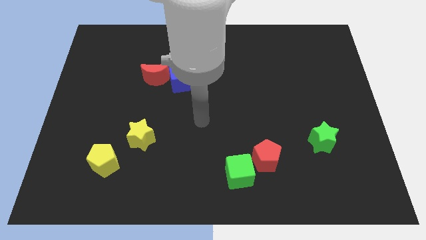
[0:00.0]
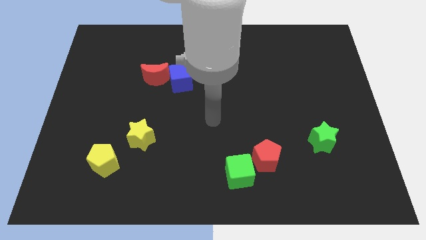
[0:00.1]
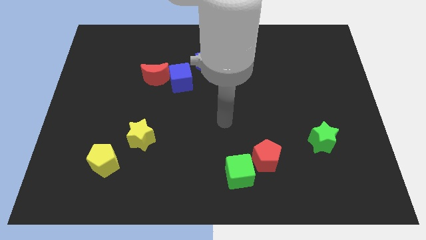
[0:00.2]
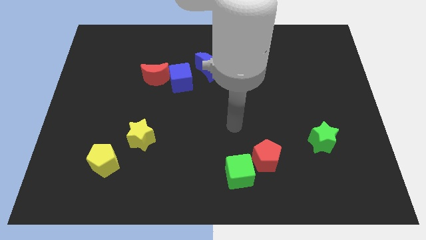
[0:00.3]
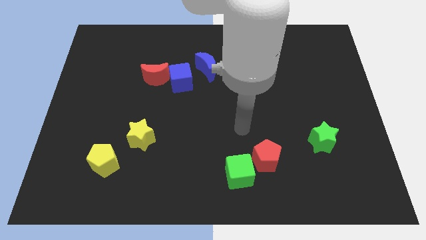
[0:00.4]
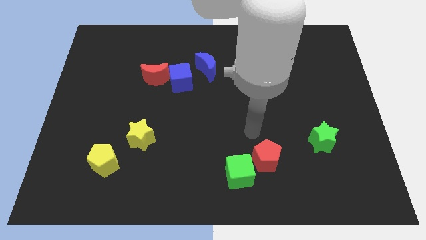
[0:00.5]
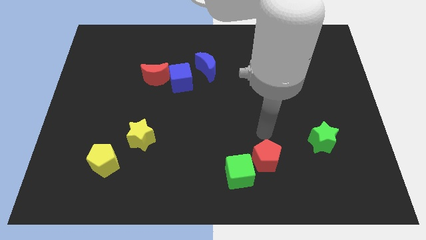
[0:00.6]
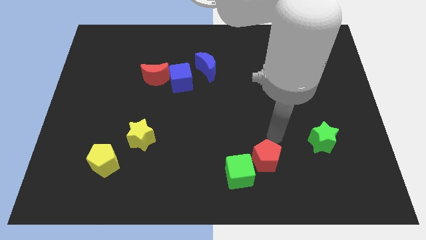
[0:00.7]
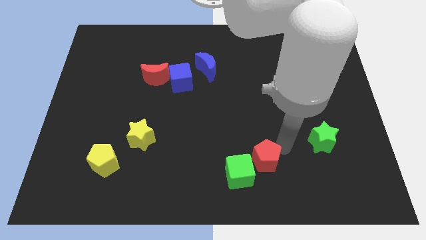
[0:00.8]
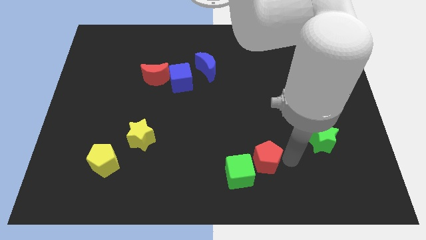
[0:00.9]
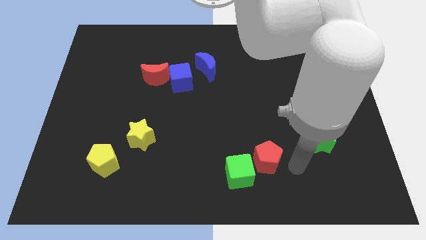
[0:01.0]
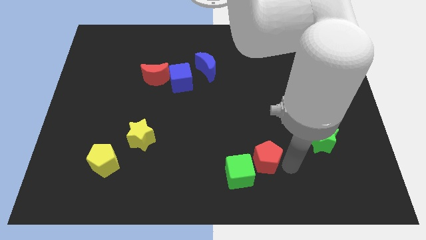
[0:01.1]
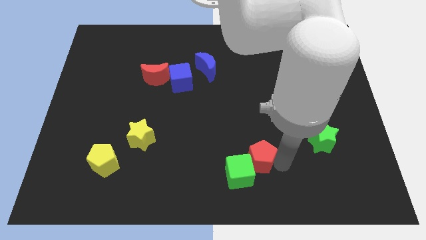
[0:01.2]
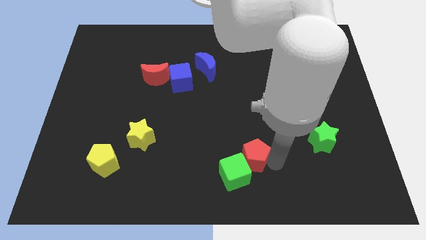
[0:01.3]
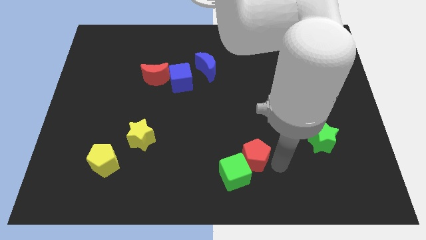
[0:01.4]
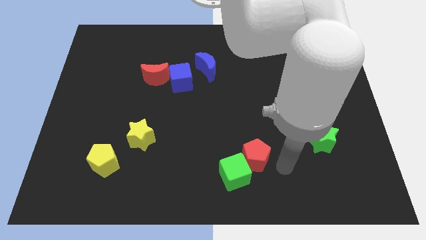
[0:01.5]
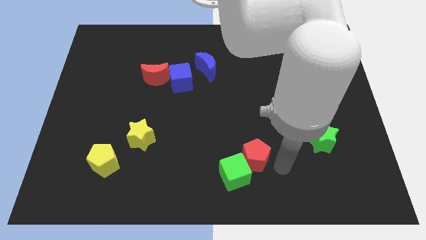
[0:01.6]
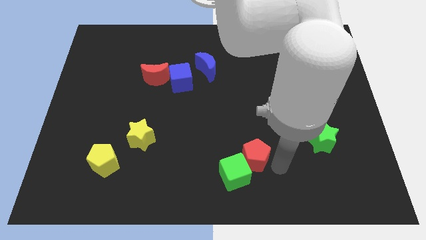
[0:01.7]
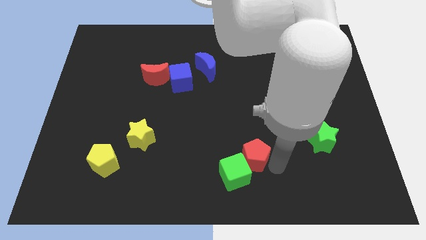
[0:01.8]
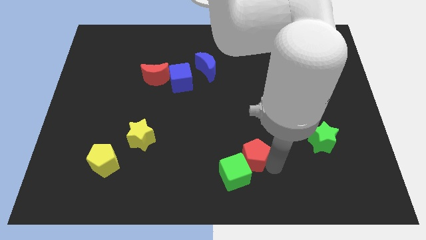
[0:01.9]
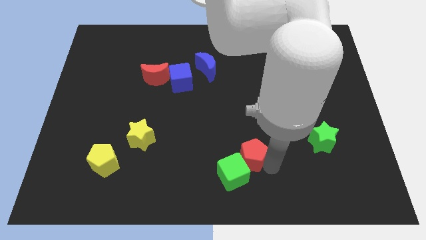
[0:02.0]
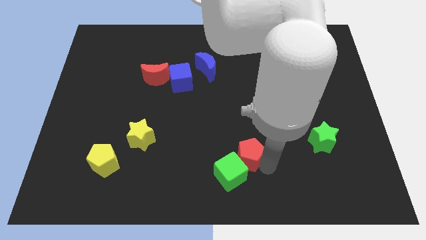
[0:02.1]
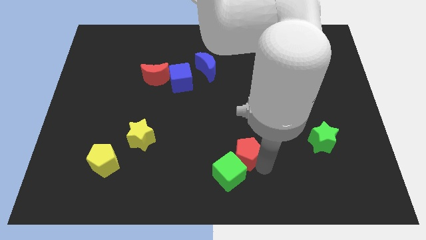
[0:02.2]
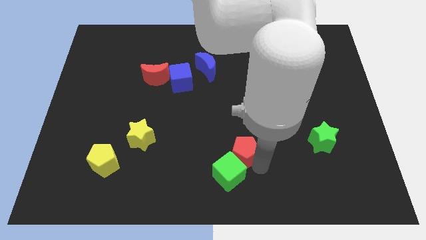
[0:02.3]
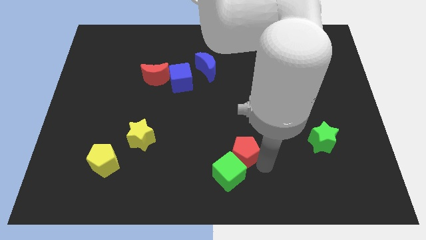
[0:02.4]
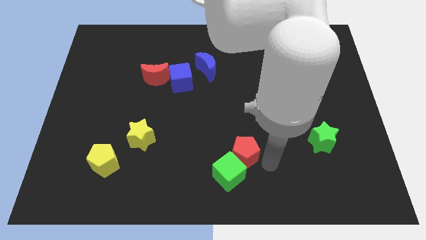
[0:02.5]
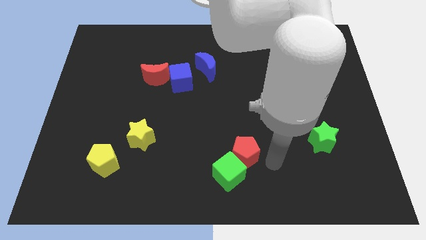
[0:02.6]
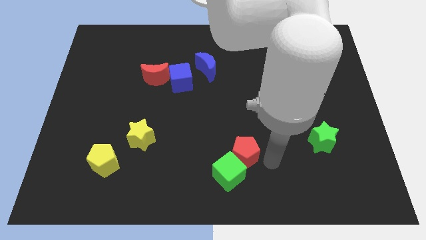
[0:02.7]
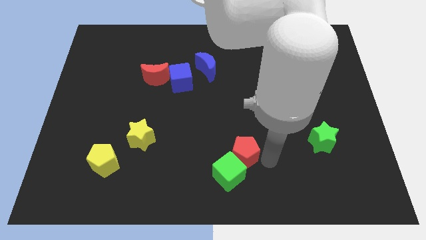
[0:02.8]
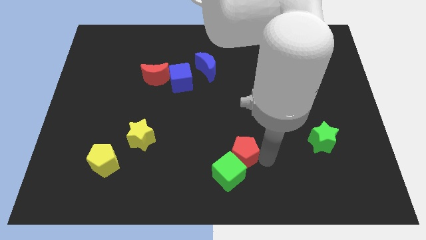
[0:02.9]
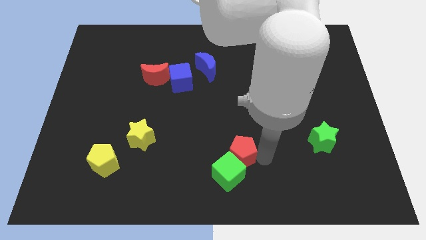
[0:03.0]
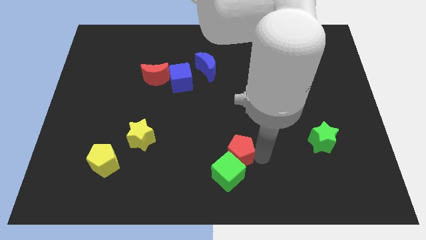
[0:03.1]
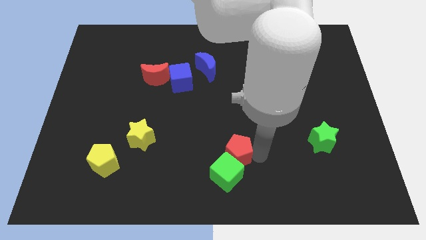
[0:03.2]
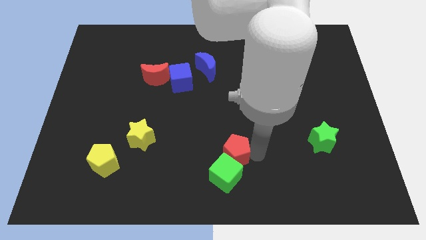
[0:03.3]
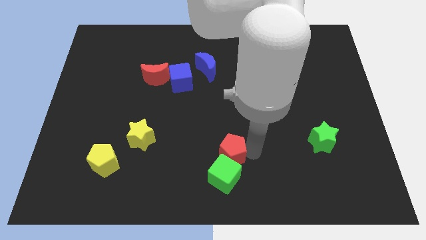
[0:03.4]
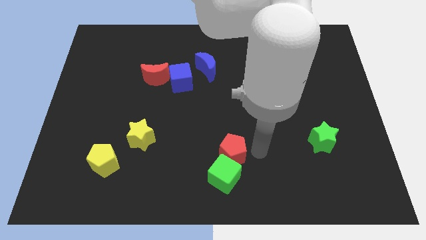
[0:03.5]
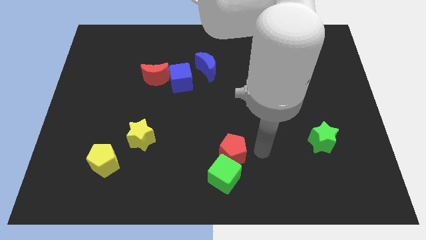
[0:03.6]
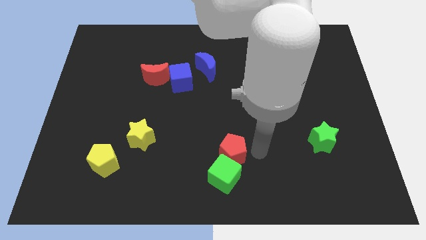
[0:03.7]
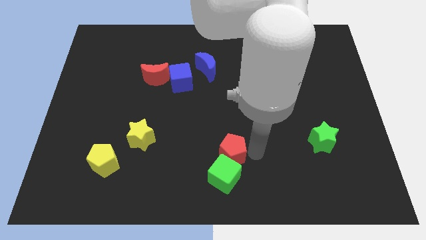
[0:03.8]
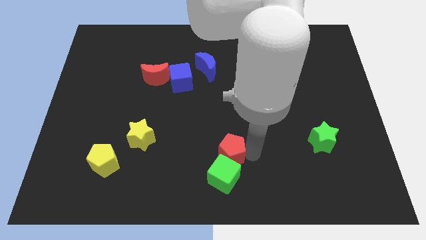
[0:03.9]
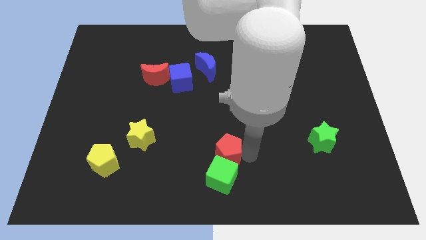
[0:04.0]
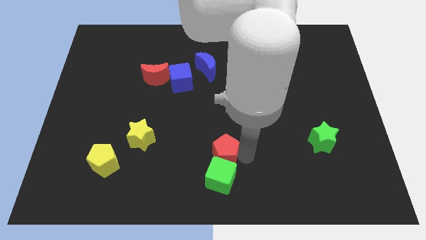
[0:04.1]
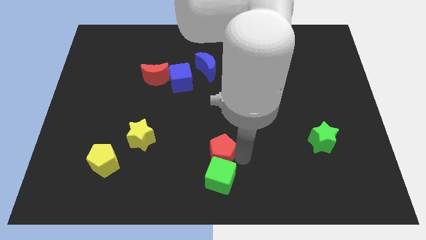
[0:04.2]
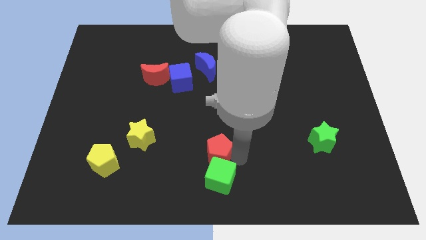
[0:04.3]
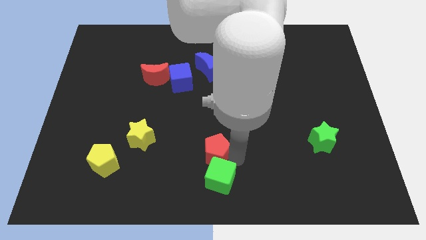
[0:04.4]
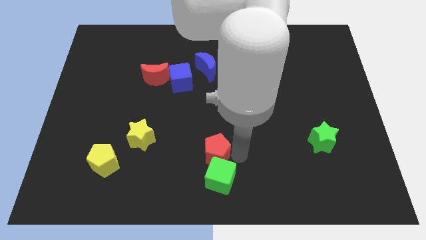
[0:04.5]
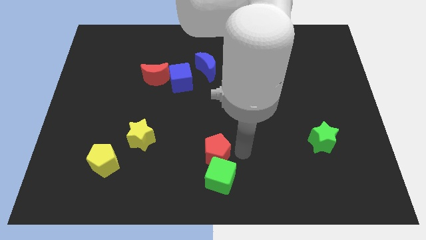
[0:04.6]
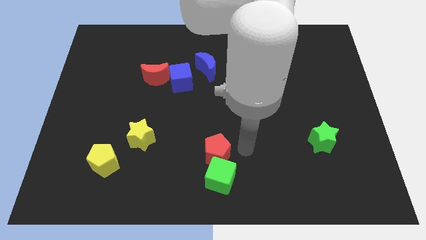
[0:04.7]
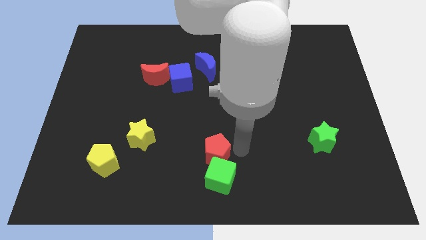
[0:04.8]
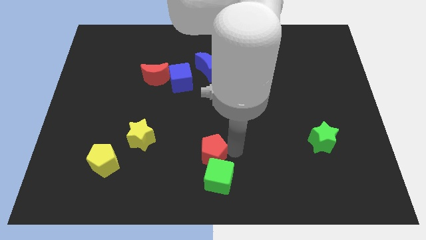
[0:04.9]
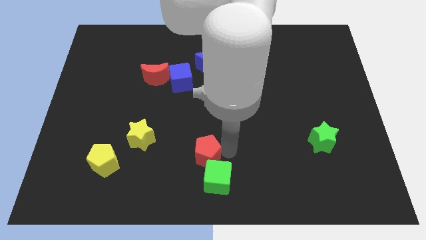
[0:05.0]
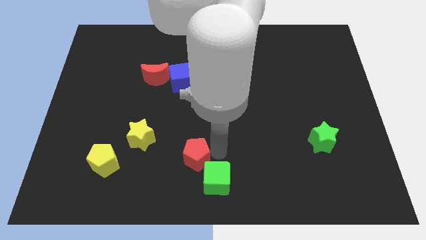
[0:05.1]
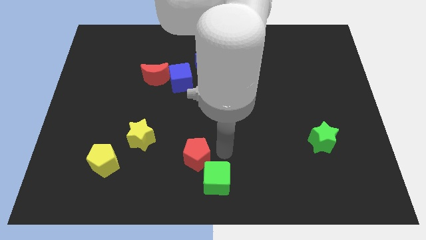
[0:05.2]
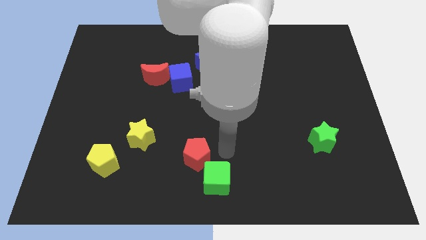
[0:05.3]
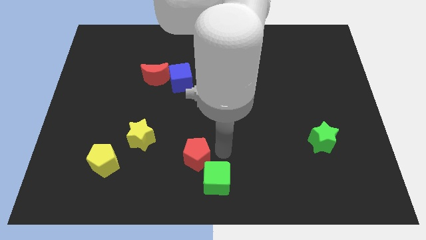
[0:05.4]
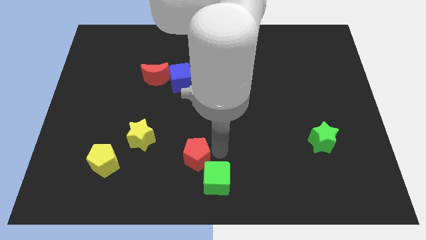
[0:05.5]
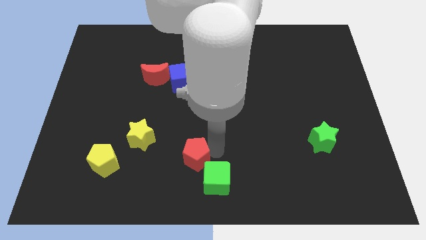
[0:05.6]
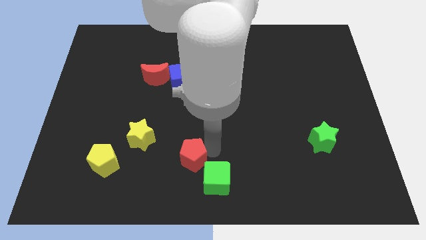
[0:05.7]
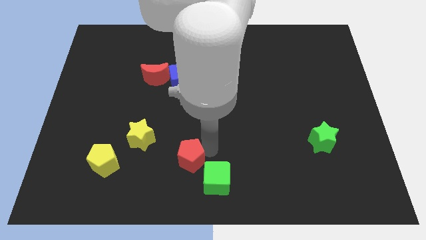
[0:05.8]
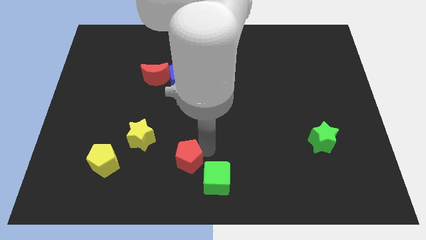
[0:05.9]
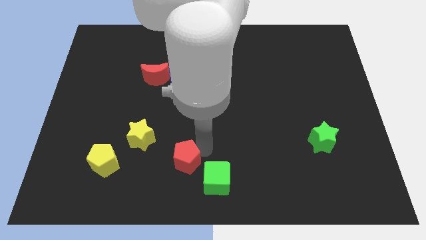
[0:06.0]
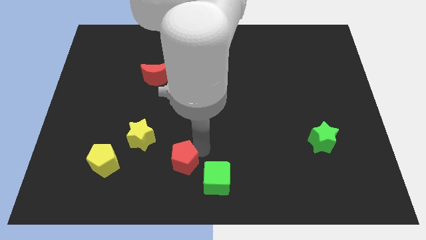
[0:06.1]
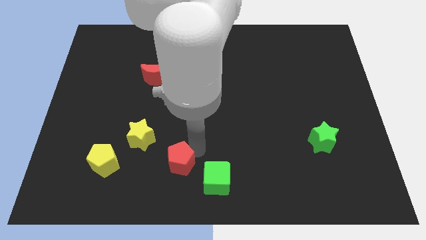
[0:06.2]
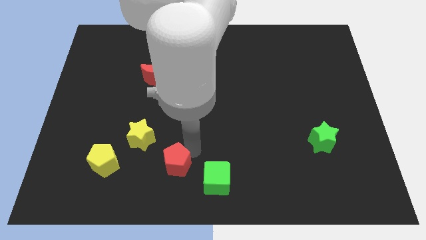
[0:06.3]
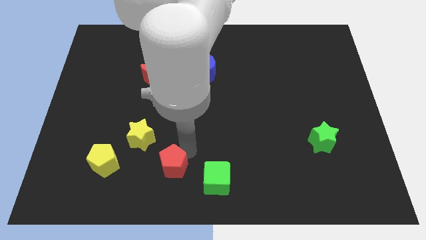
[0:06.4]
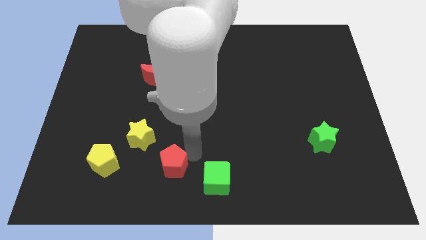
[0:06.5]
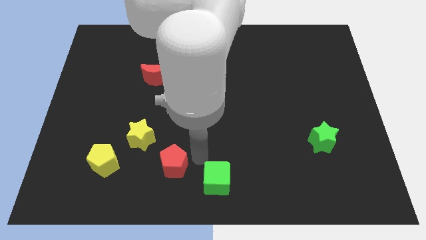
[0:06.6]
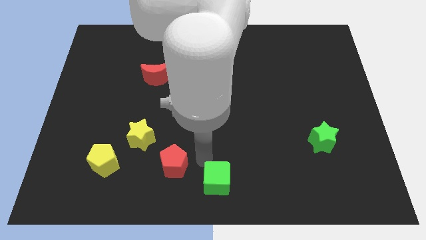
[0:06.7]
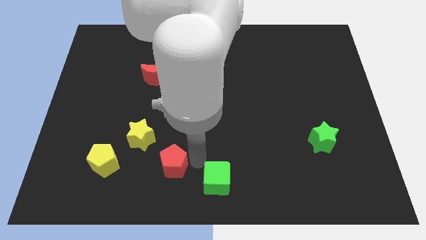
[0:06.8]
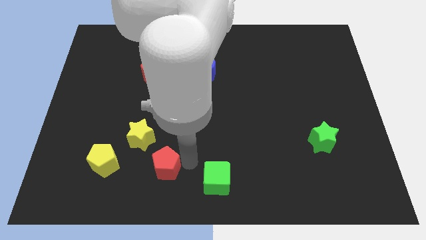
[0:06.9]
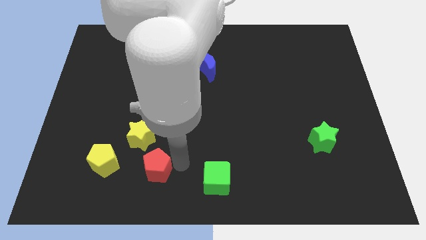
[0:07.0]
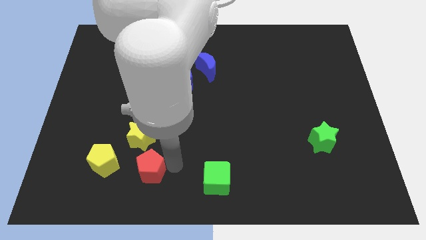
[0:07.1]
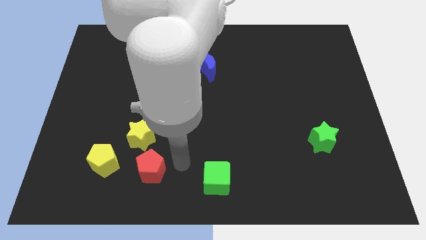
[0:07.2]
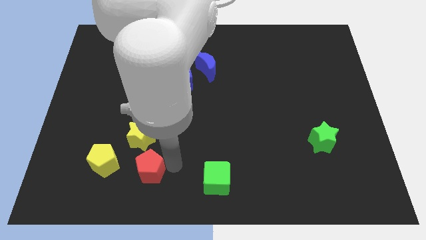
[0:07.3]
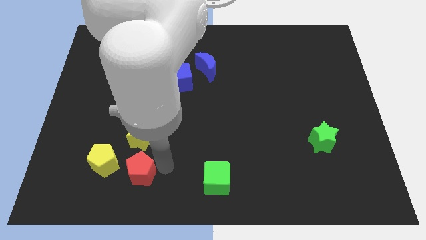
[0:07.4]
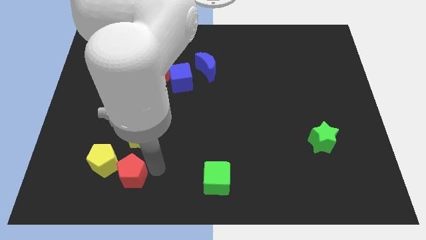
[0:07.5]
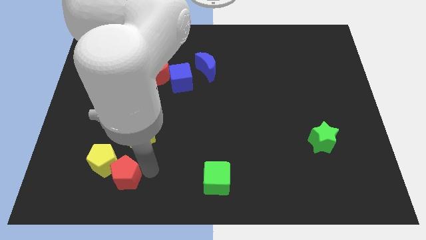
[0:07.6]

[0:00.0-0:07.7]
push the red pentagon towards the yellow pentagon
